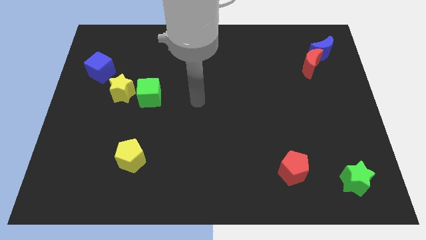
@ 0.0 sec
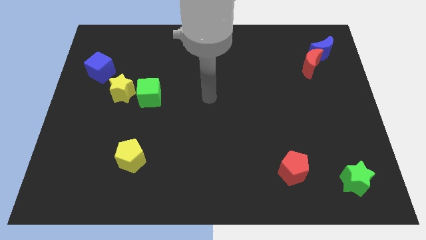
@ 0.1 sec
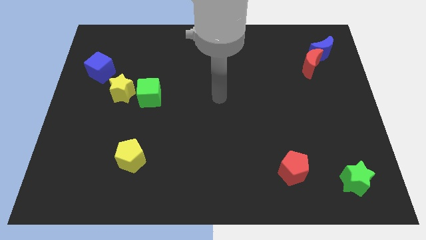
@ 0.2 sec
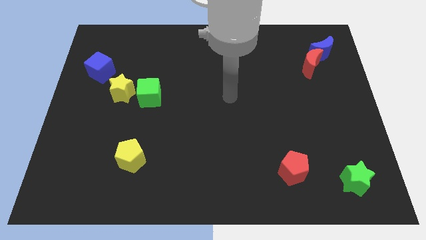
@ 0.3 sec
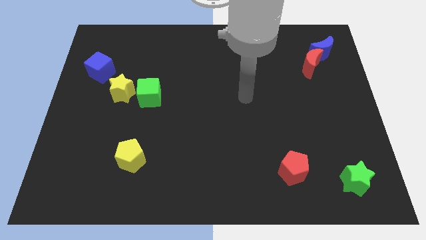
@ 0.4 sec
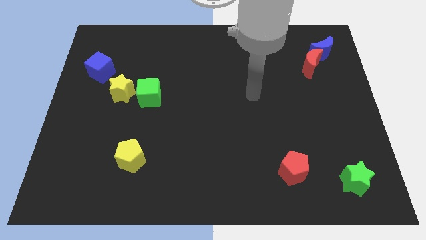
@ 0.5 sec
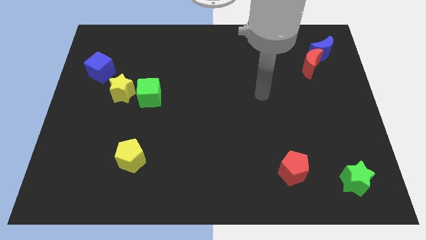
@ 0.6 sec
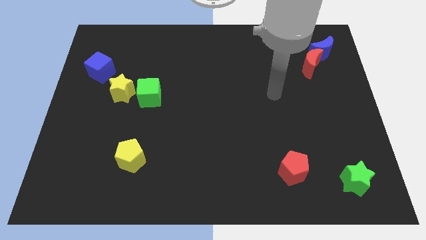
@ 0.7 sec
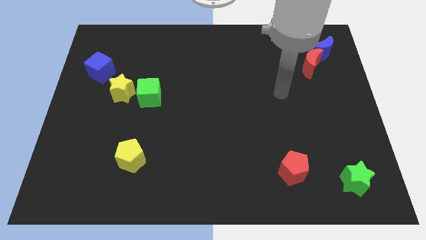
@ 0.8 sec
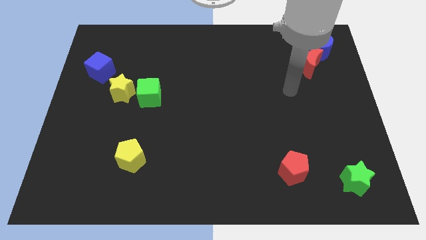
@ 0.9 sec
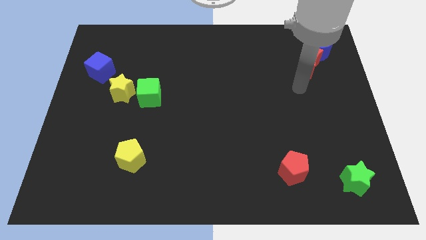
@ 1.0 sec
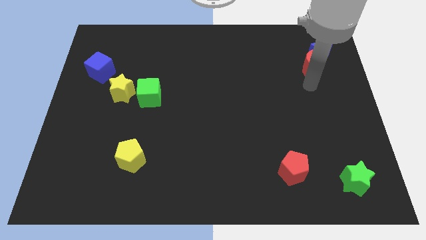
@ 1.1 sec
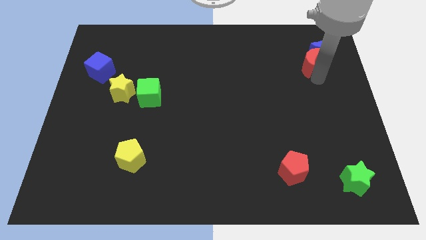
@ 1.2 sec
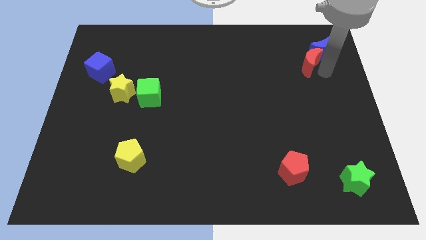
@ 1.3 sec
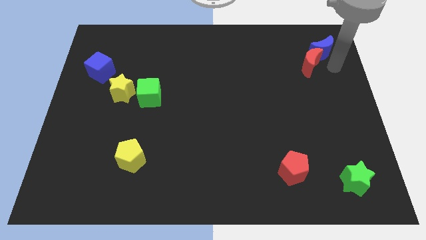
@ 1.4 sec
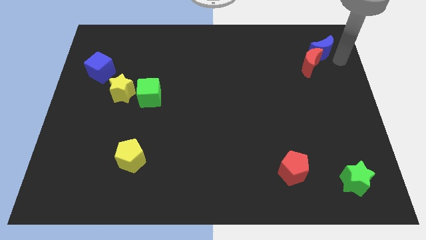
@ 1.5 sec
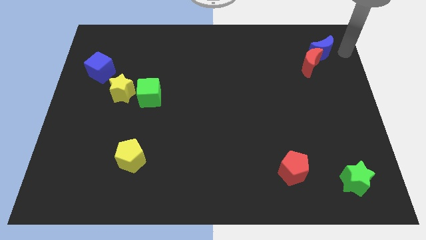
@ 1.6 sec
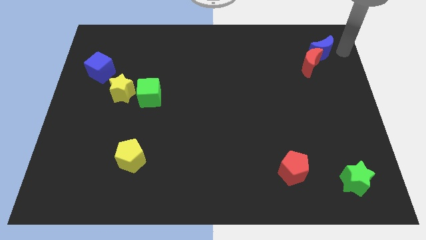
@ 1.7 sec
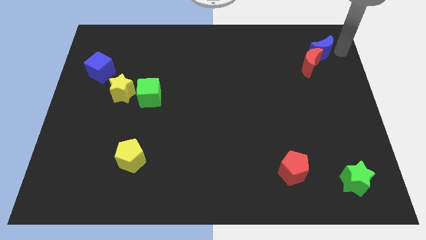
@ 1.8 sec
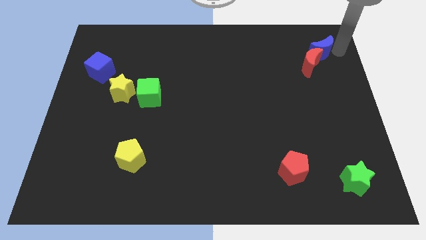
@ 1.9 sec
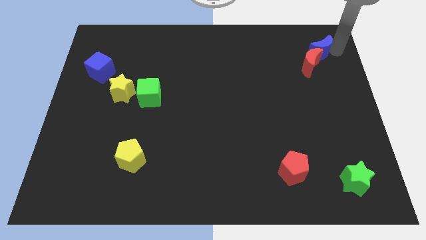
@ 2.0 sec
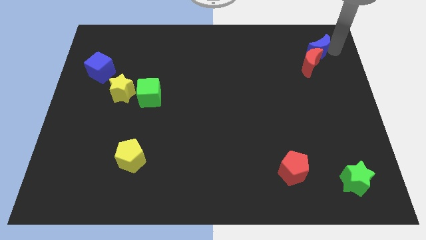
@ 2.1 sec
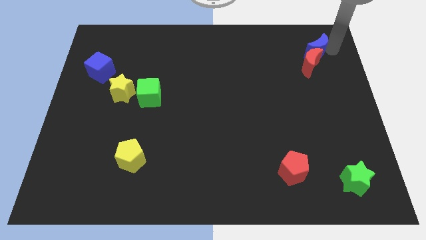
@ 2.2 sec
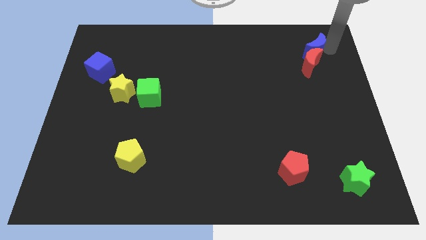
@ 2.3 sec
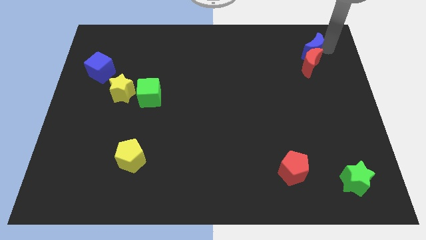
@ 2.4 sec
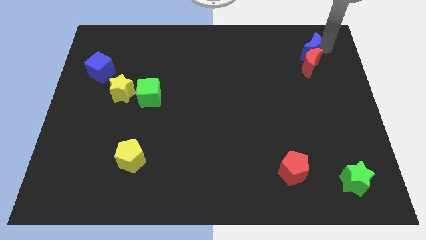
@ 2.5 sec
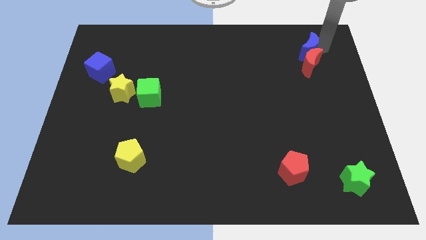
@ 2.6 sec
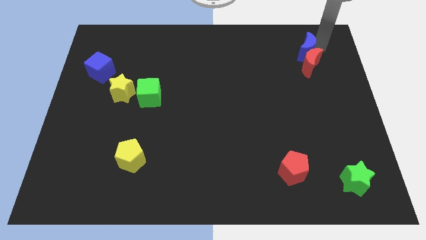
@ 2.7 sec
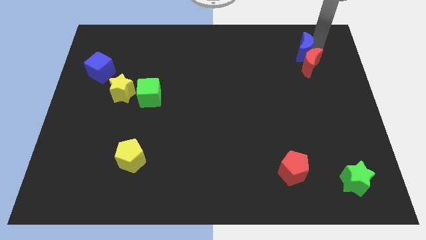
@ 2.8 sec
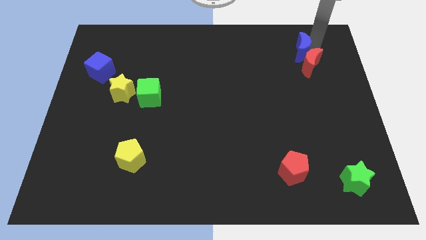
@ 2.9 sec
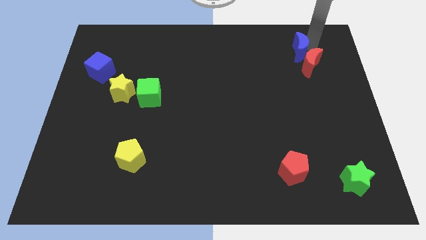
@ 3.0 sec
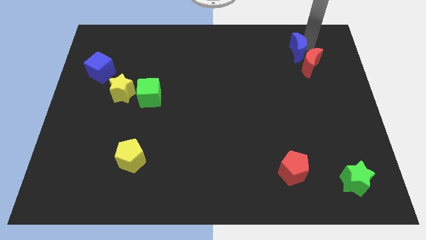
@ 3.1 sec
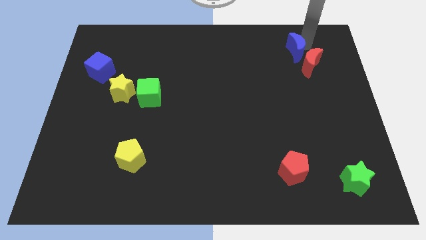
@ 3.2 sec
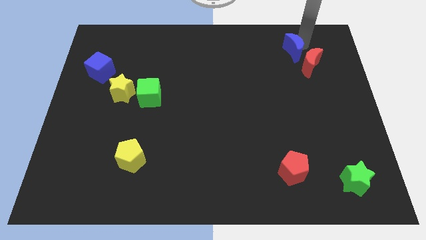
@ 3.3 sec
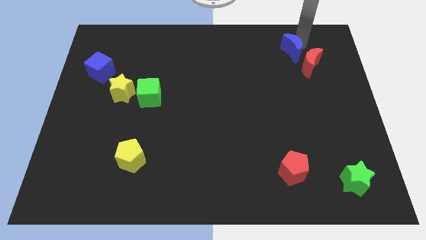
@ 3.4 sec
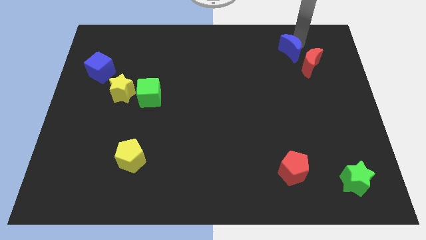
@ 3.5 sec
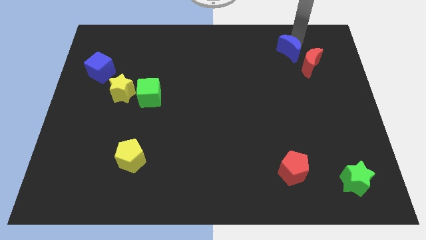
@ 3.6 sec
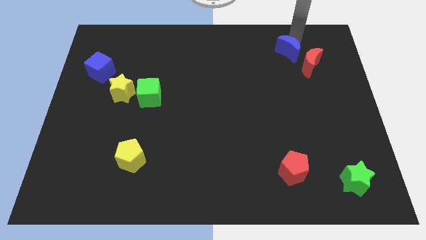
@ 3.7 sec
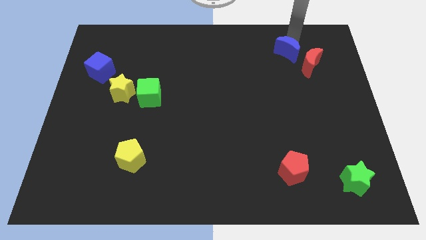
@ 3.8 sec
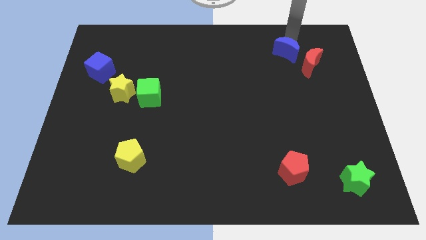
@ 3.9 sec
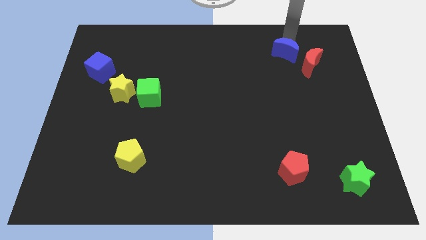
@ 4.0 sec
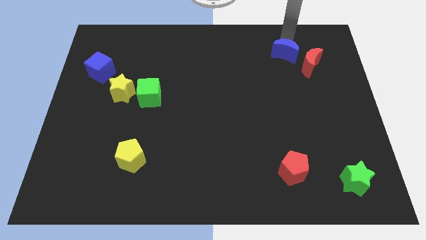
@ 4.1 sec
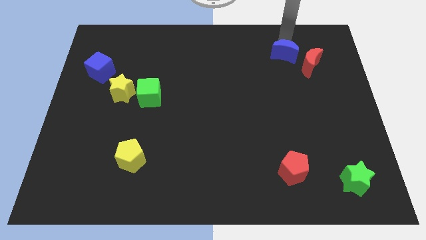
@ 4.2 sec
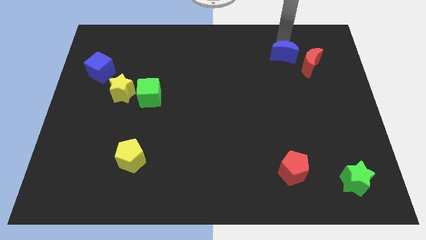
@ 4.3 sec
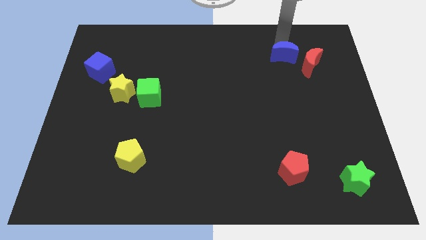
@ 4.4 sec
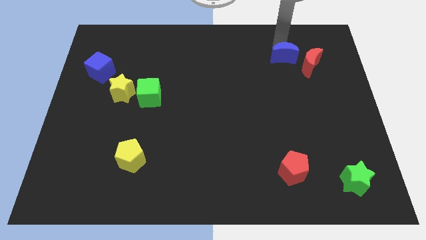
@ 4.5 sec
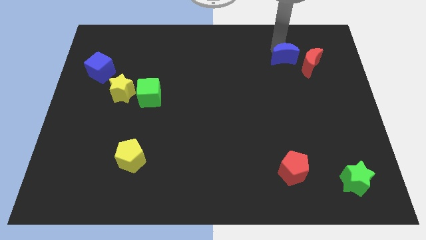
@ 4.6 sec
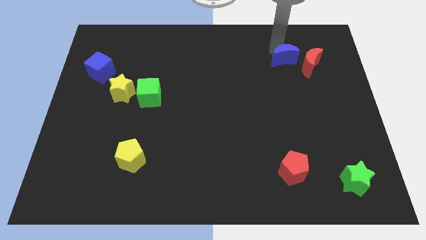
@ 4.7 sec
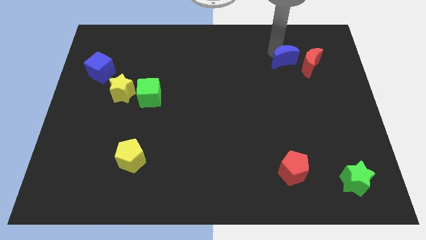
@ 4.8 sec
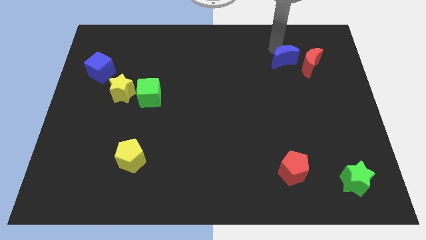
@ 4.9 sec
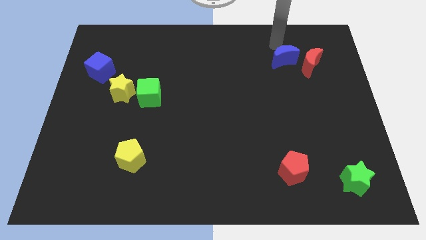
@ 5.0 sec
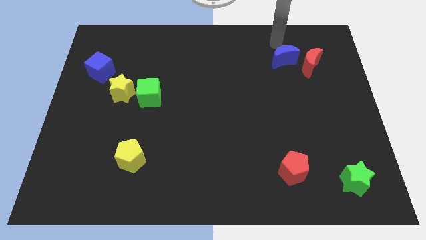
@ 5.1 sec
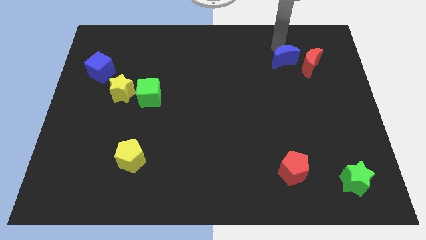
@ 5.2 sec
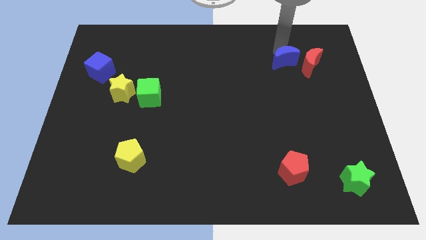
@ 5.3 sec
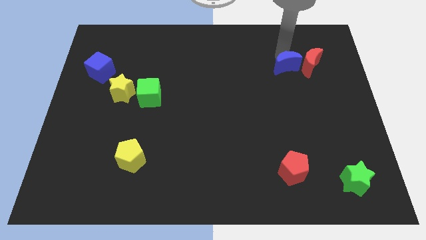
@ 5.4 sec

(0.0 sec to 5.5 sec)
put the blue moon to the bottom left side of the red moon

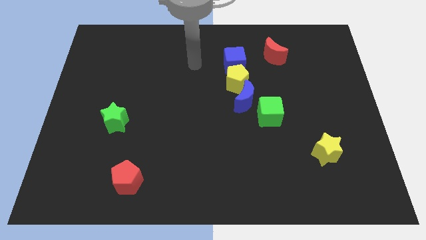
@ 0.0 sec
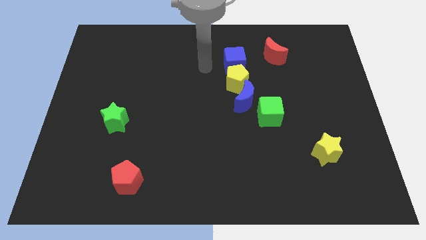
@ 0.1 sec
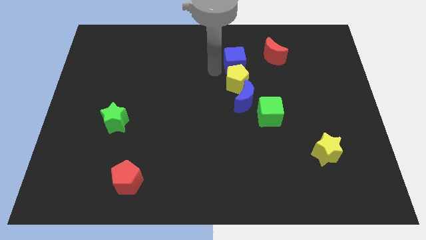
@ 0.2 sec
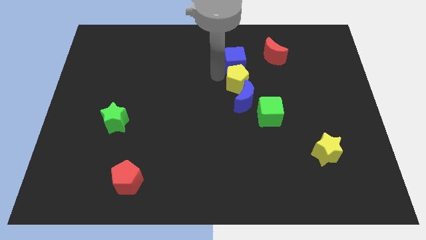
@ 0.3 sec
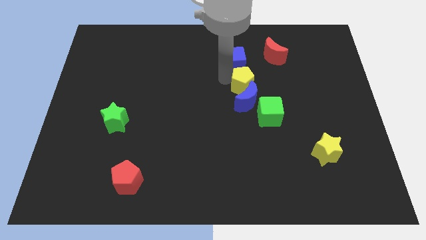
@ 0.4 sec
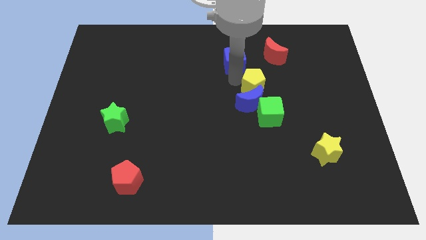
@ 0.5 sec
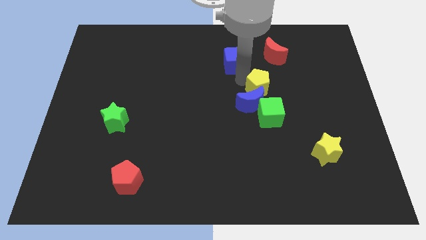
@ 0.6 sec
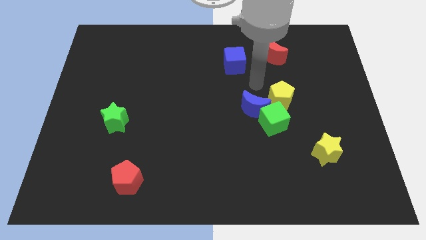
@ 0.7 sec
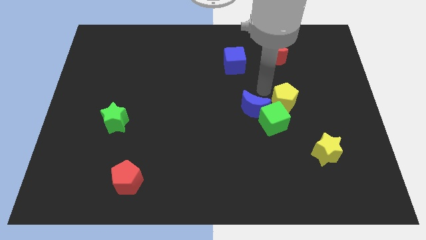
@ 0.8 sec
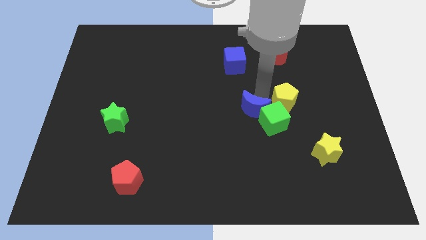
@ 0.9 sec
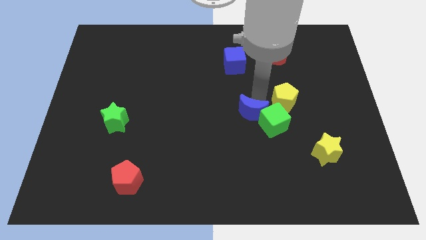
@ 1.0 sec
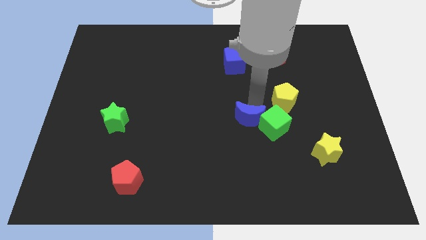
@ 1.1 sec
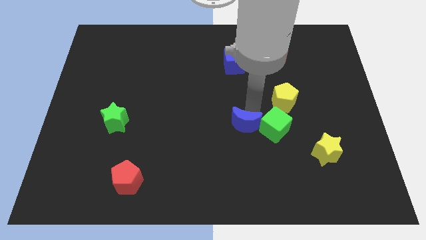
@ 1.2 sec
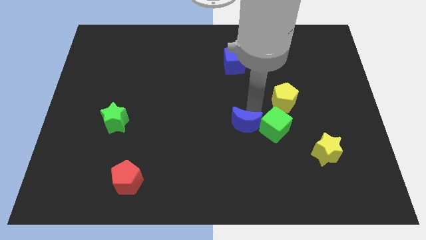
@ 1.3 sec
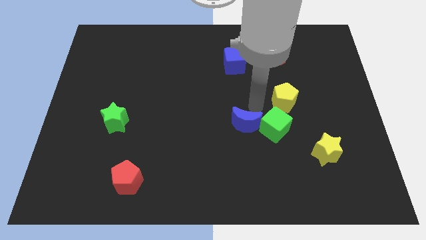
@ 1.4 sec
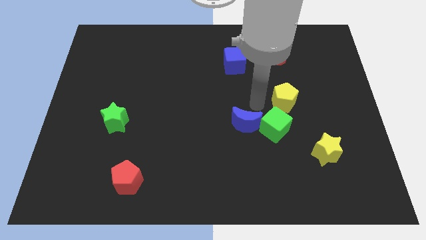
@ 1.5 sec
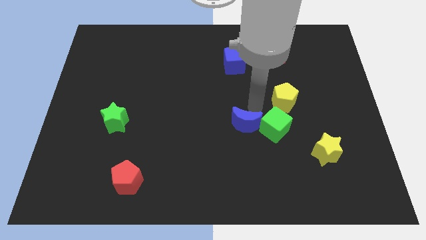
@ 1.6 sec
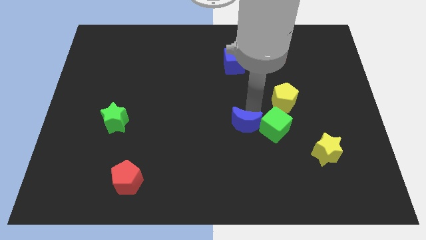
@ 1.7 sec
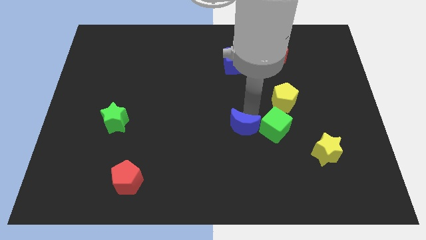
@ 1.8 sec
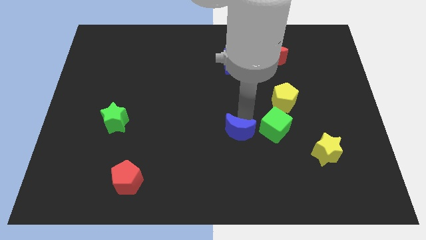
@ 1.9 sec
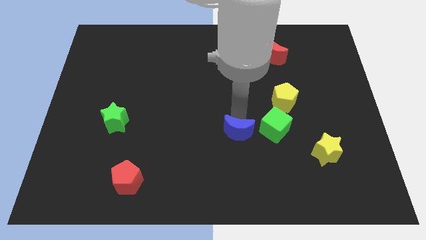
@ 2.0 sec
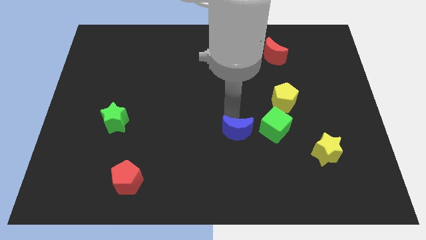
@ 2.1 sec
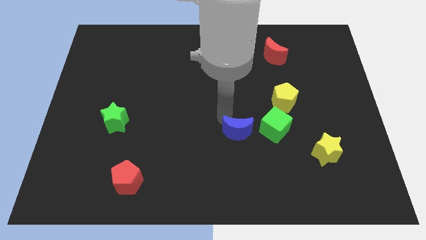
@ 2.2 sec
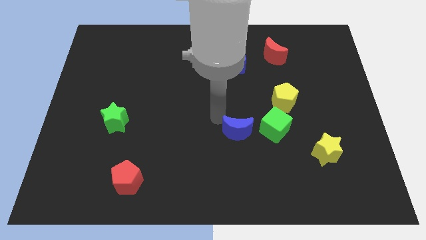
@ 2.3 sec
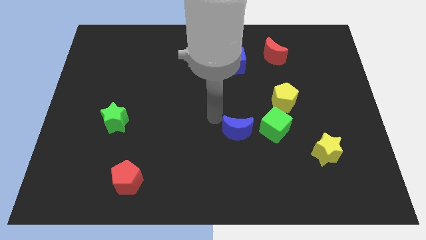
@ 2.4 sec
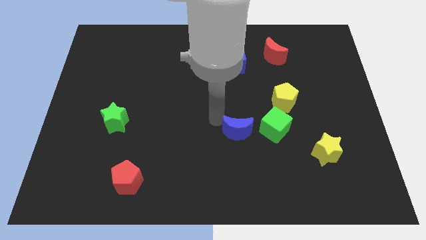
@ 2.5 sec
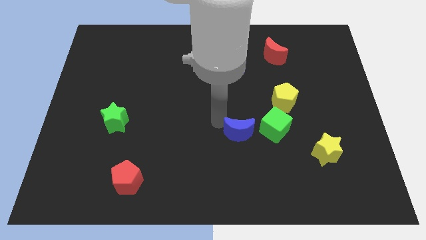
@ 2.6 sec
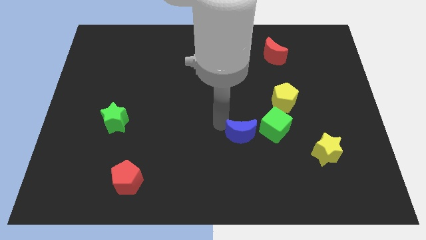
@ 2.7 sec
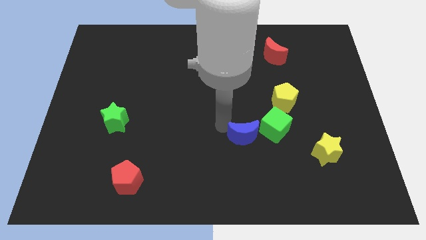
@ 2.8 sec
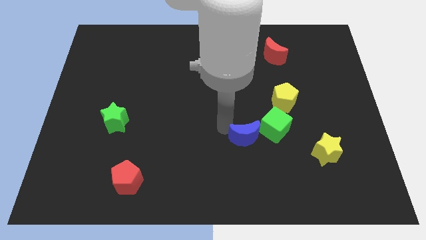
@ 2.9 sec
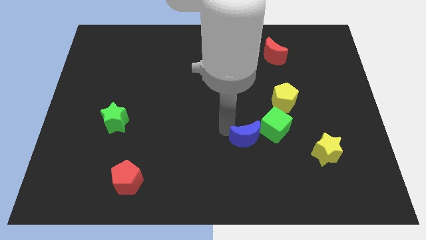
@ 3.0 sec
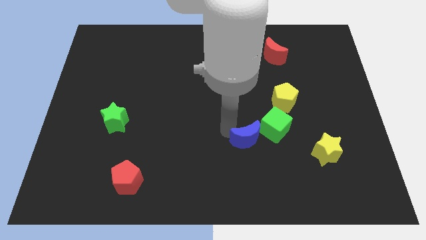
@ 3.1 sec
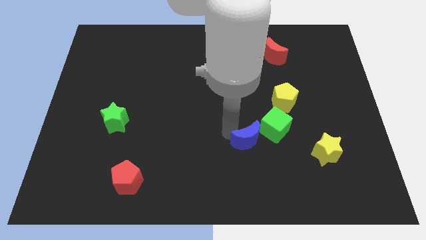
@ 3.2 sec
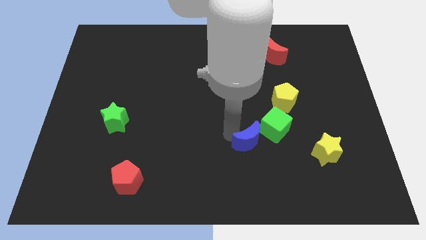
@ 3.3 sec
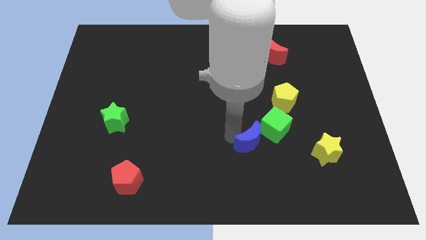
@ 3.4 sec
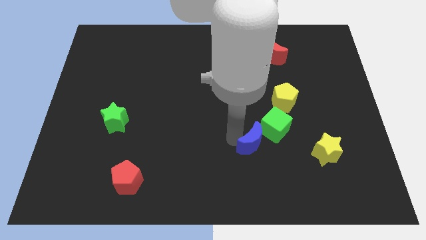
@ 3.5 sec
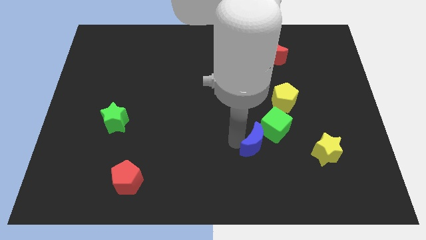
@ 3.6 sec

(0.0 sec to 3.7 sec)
put the blue moon just left of the yellow star
